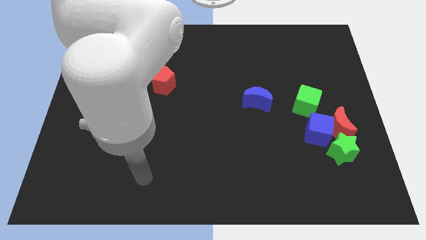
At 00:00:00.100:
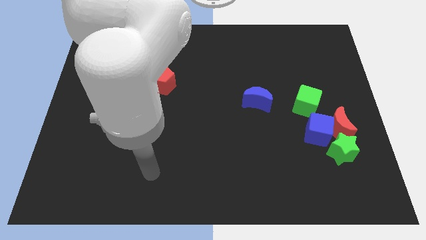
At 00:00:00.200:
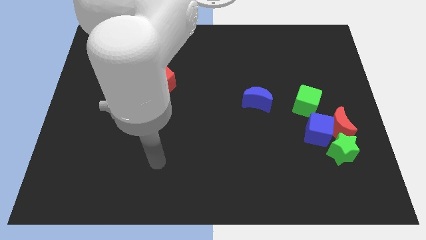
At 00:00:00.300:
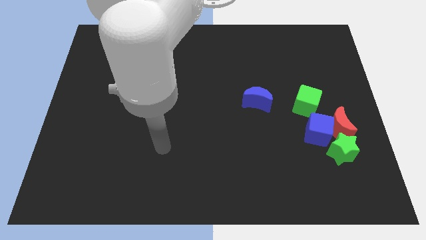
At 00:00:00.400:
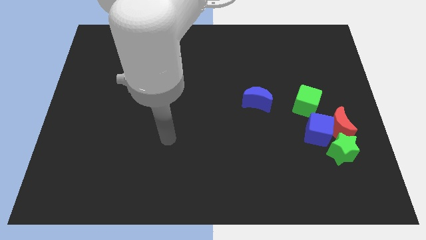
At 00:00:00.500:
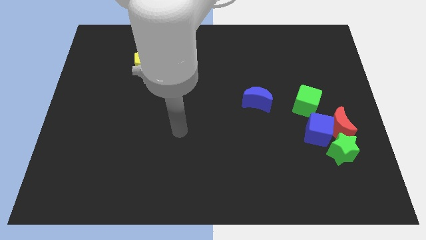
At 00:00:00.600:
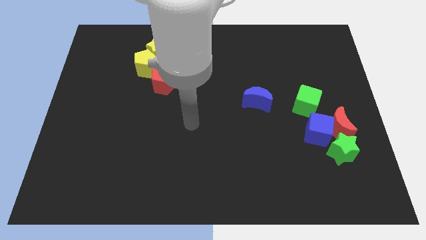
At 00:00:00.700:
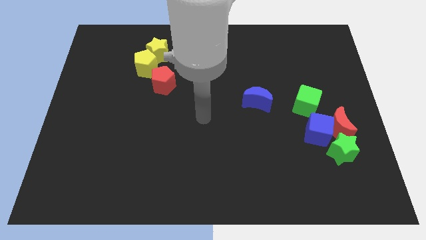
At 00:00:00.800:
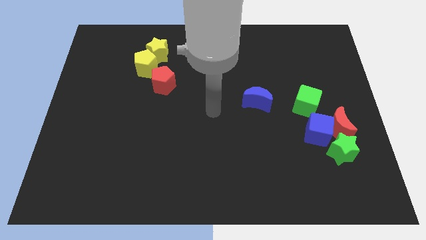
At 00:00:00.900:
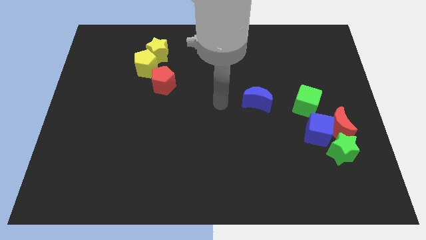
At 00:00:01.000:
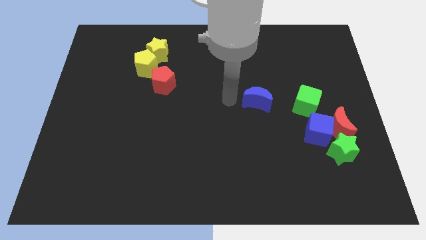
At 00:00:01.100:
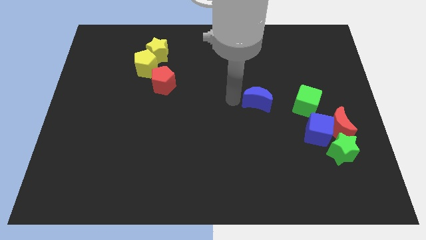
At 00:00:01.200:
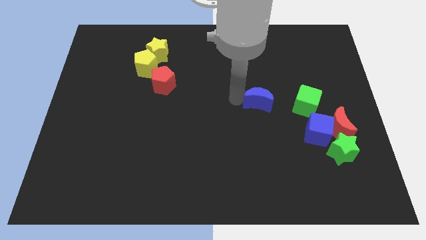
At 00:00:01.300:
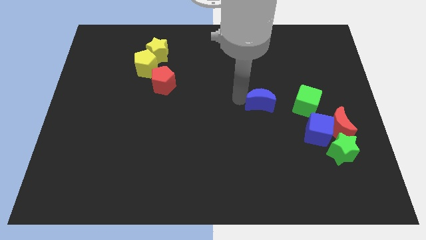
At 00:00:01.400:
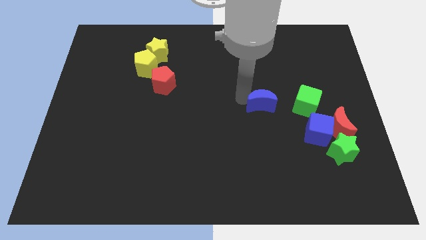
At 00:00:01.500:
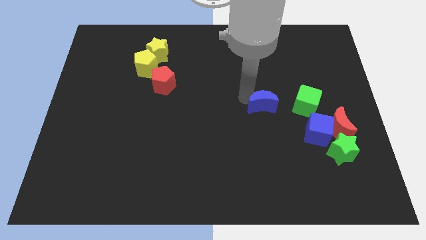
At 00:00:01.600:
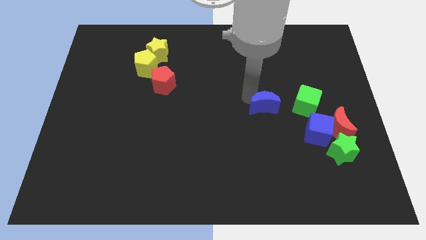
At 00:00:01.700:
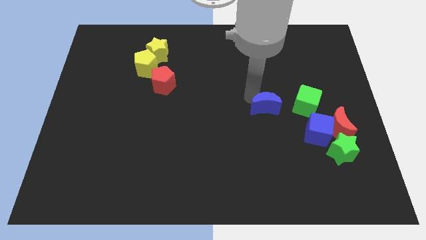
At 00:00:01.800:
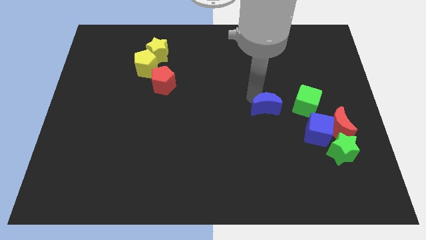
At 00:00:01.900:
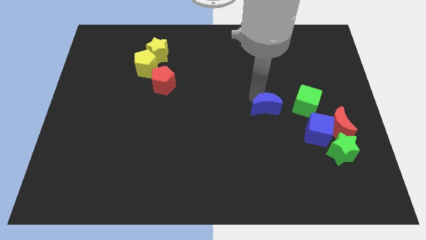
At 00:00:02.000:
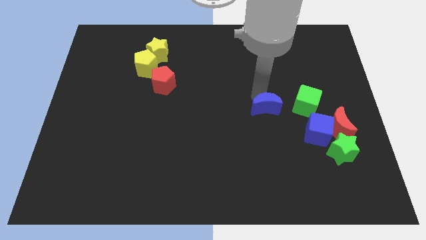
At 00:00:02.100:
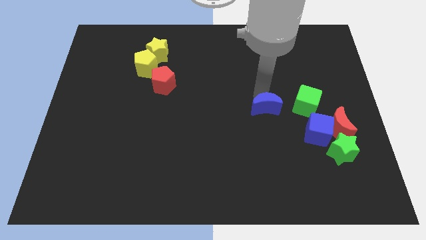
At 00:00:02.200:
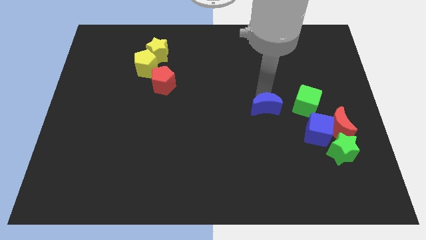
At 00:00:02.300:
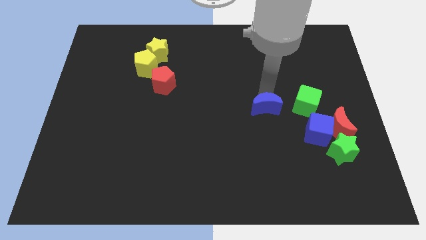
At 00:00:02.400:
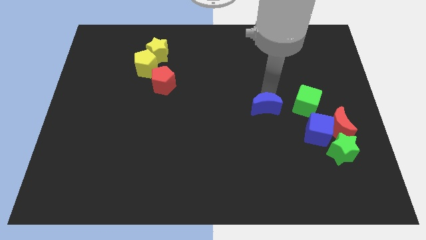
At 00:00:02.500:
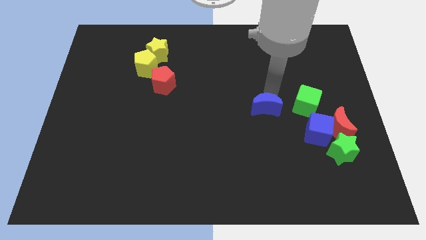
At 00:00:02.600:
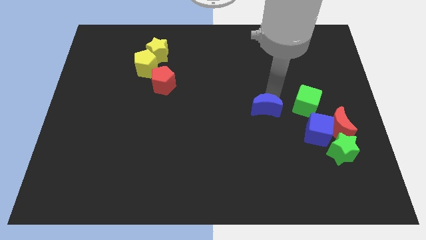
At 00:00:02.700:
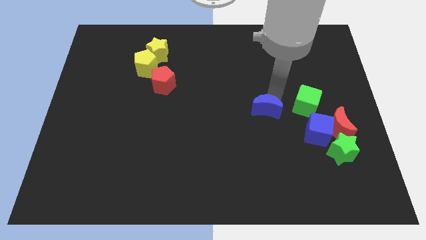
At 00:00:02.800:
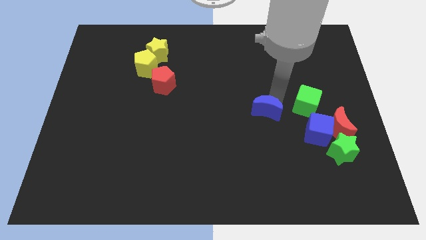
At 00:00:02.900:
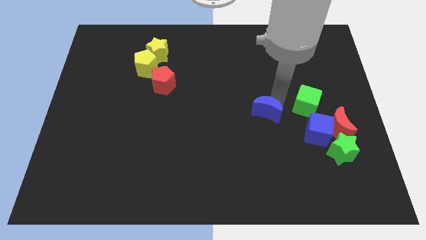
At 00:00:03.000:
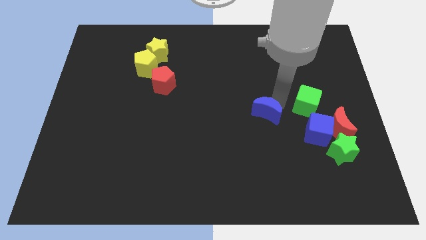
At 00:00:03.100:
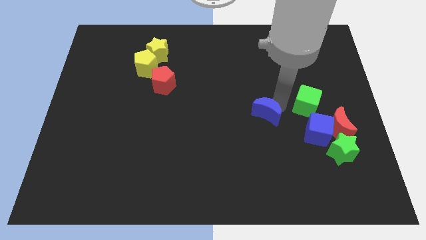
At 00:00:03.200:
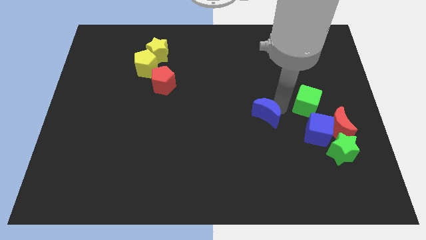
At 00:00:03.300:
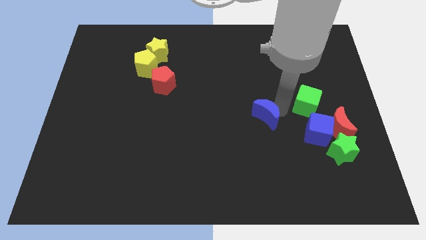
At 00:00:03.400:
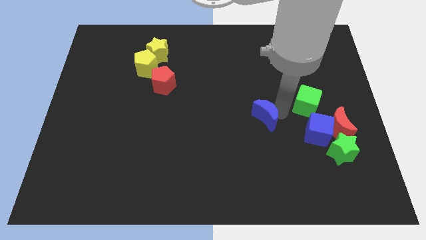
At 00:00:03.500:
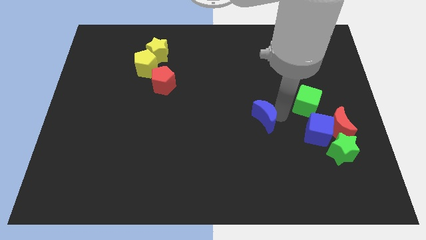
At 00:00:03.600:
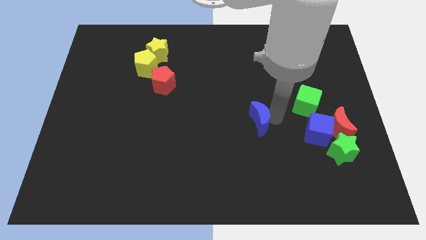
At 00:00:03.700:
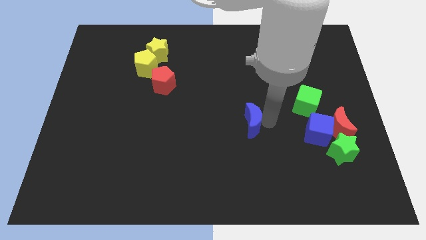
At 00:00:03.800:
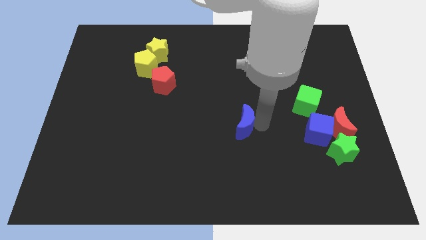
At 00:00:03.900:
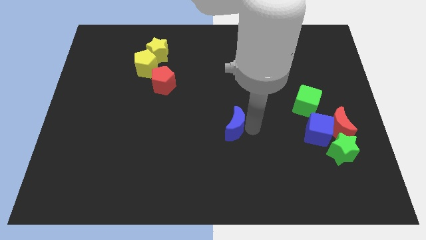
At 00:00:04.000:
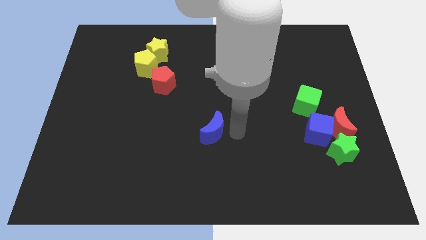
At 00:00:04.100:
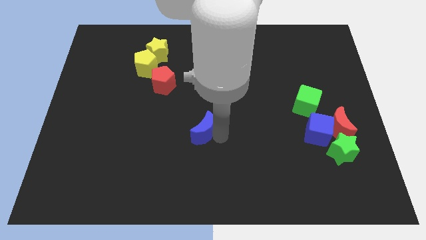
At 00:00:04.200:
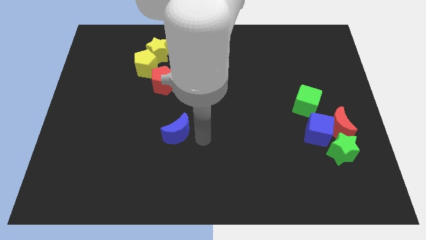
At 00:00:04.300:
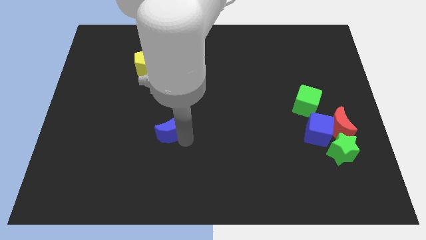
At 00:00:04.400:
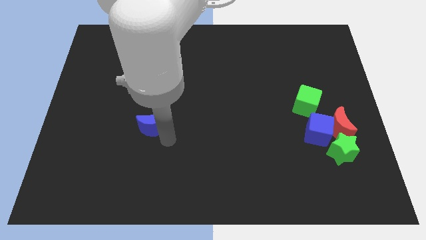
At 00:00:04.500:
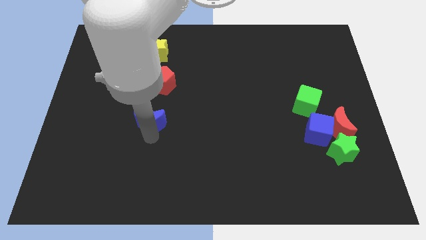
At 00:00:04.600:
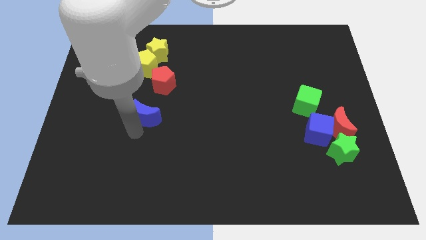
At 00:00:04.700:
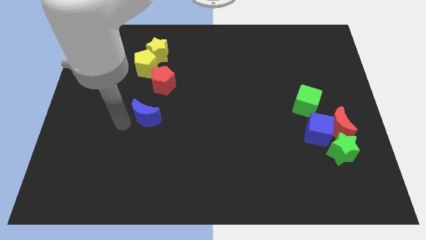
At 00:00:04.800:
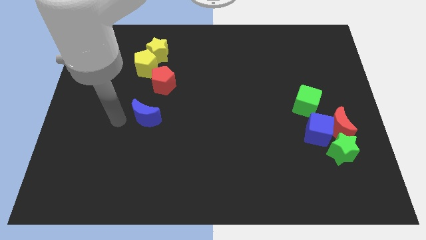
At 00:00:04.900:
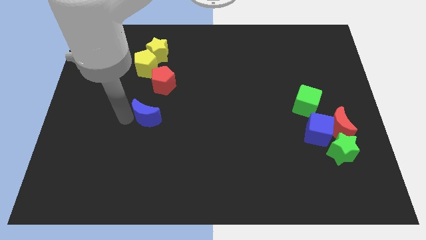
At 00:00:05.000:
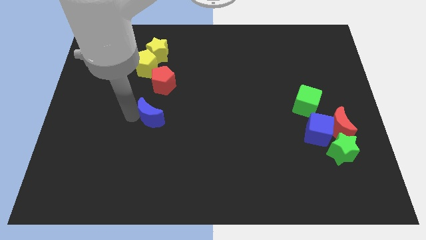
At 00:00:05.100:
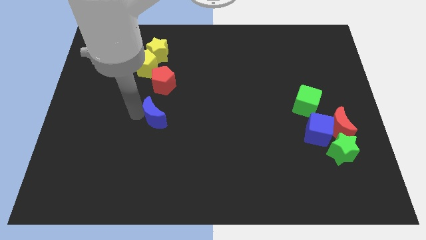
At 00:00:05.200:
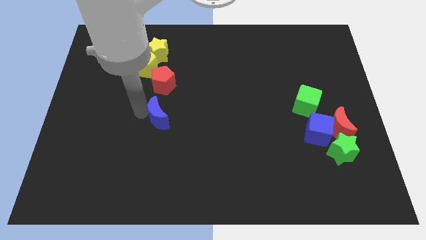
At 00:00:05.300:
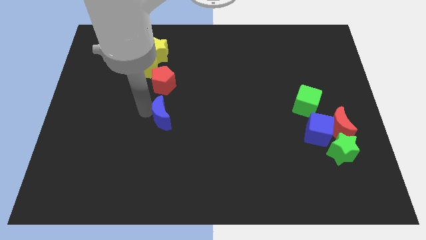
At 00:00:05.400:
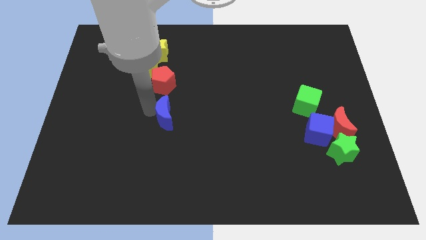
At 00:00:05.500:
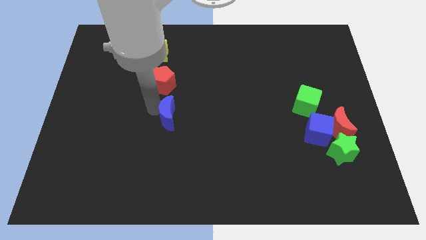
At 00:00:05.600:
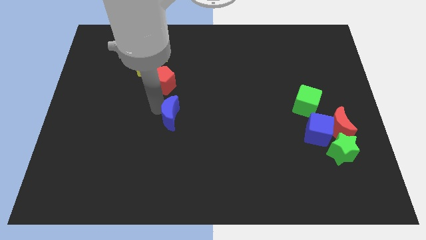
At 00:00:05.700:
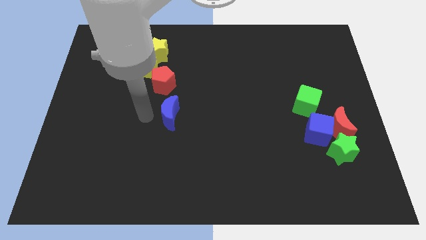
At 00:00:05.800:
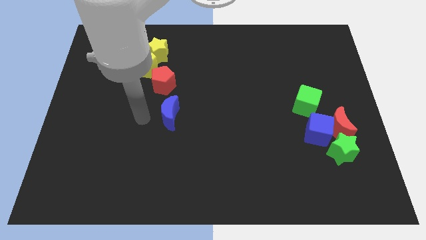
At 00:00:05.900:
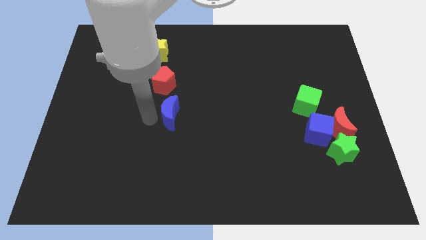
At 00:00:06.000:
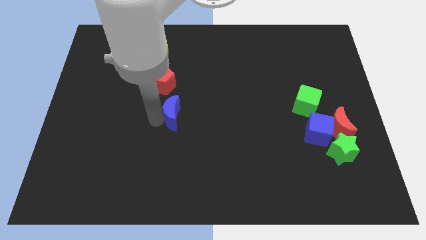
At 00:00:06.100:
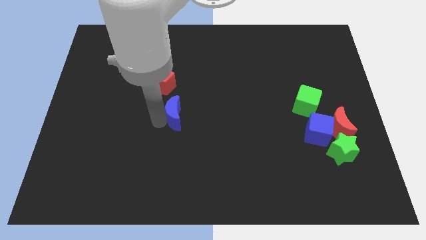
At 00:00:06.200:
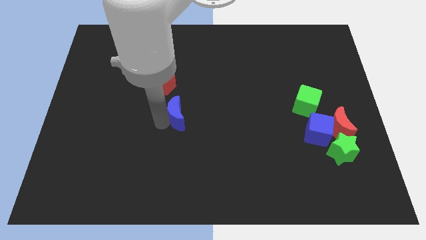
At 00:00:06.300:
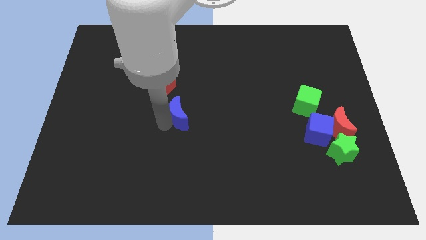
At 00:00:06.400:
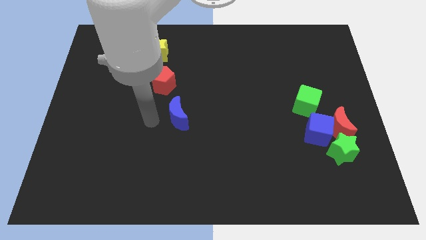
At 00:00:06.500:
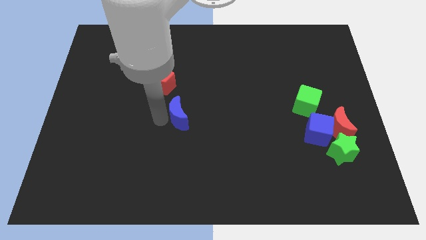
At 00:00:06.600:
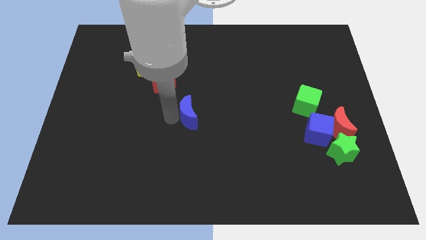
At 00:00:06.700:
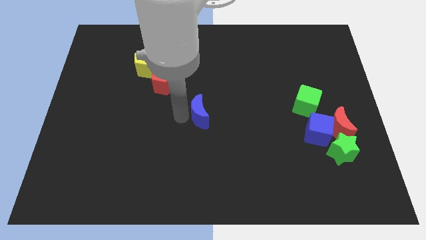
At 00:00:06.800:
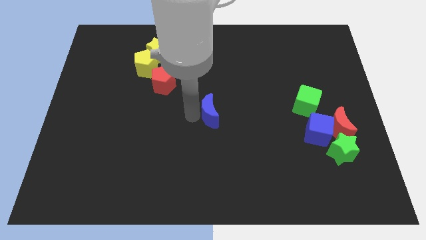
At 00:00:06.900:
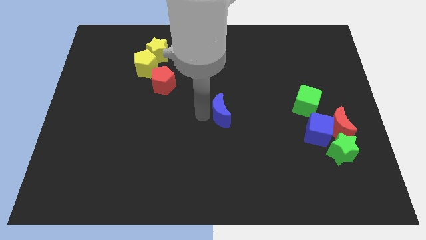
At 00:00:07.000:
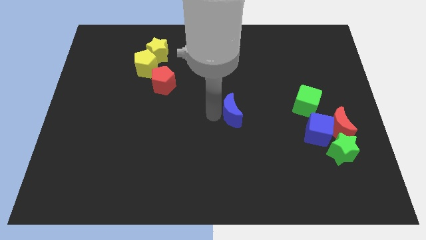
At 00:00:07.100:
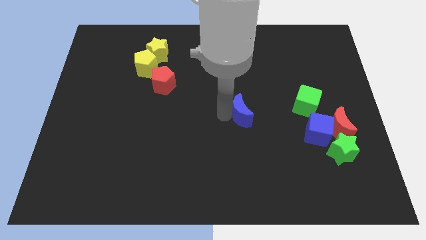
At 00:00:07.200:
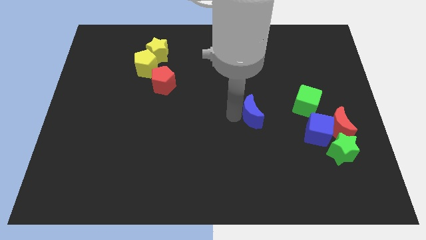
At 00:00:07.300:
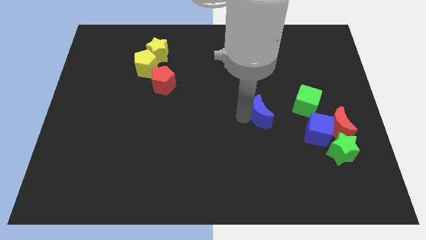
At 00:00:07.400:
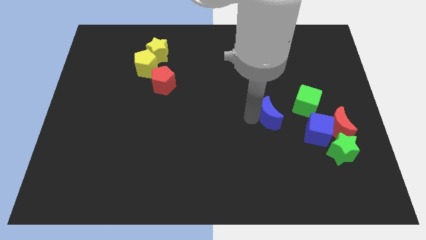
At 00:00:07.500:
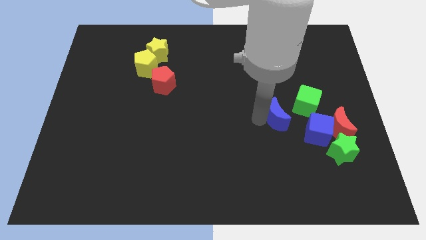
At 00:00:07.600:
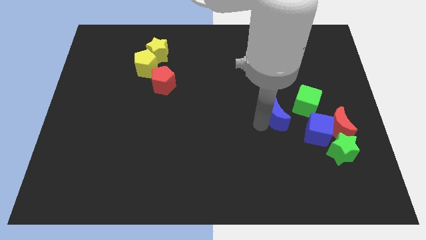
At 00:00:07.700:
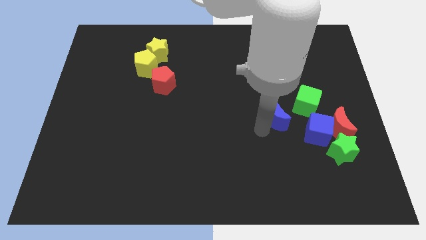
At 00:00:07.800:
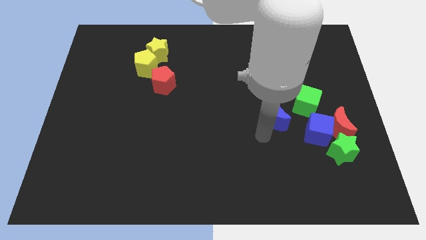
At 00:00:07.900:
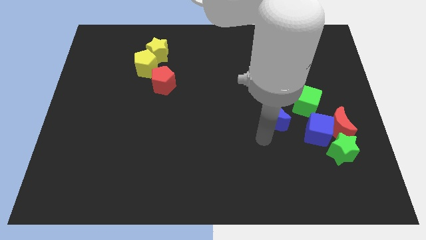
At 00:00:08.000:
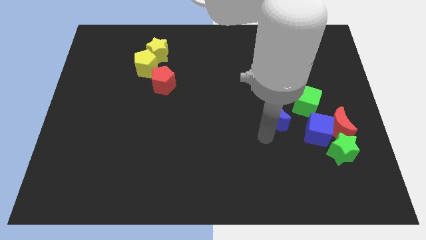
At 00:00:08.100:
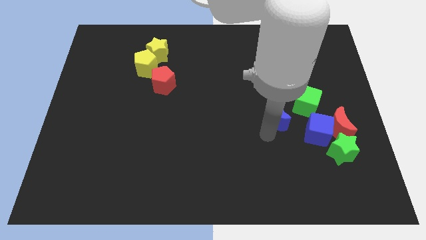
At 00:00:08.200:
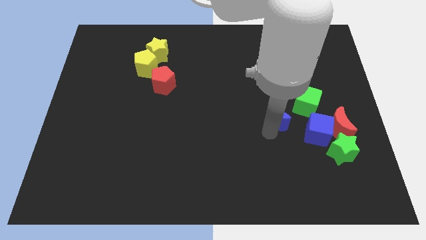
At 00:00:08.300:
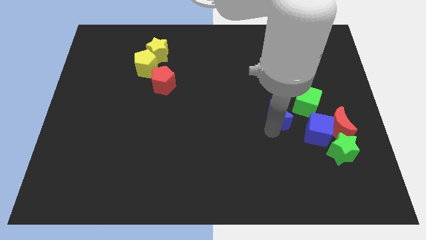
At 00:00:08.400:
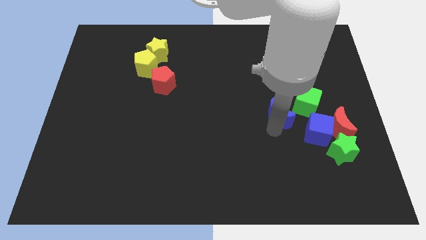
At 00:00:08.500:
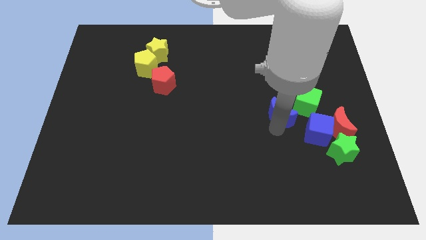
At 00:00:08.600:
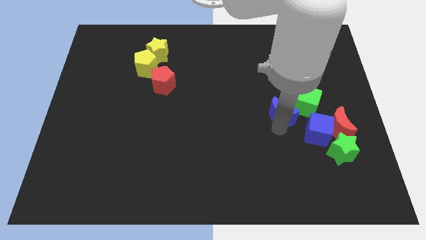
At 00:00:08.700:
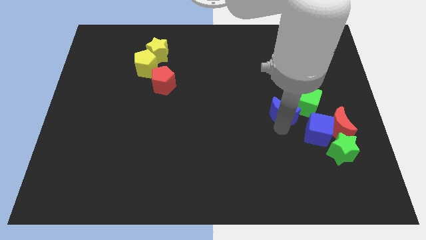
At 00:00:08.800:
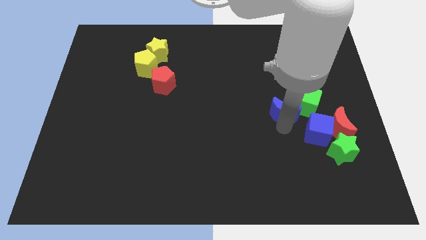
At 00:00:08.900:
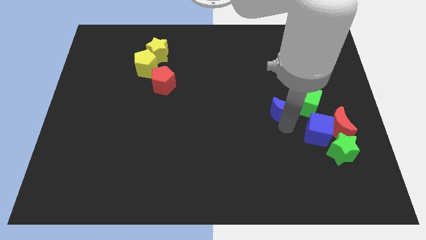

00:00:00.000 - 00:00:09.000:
slide the blue moon to the green cube
